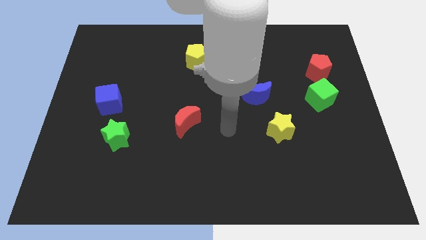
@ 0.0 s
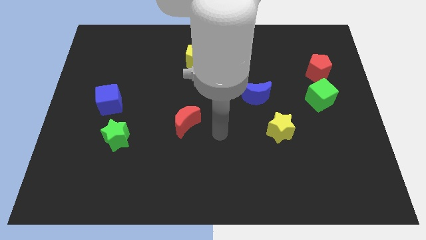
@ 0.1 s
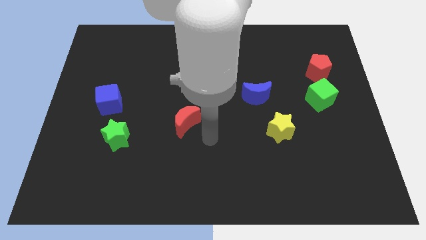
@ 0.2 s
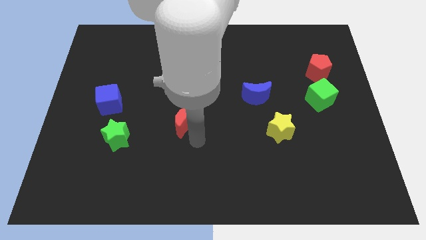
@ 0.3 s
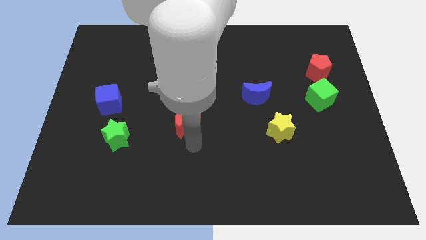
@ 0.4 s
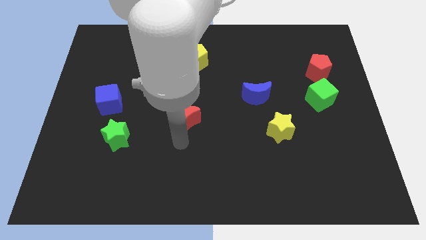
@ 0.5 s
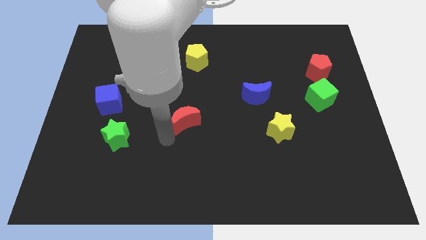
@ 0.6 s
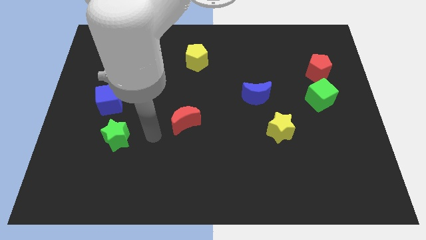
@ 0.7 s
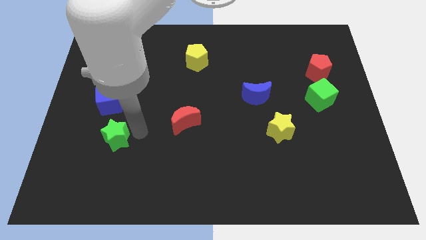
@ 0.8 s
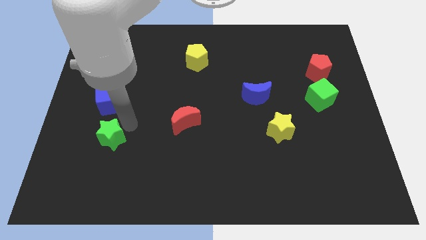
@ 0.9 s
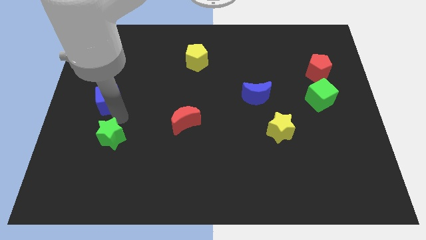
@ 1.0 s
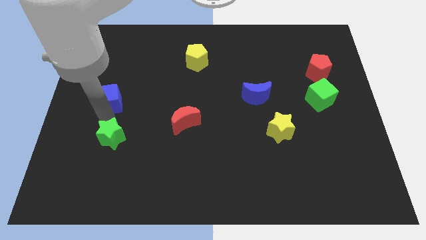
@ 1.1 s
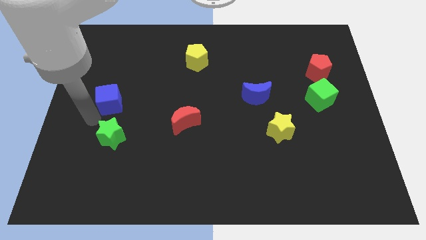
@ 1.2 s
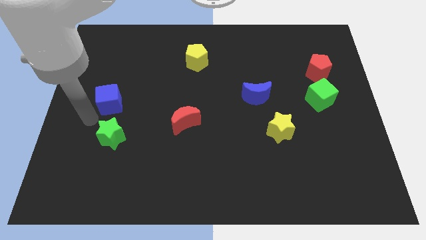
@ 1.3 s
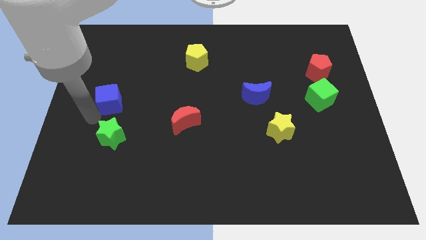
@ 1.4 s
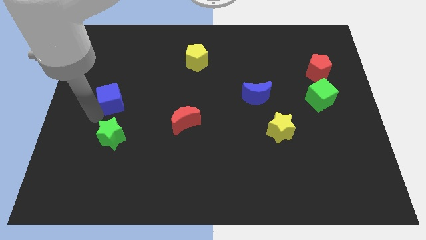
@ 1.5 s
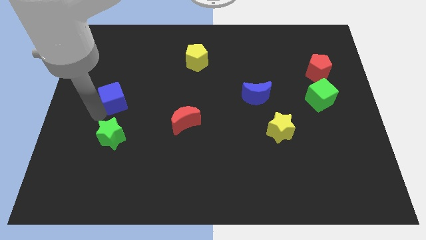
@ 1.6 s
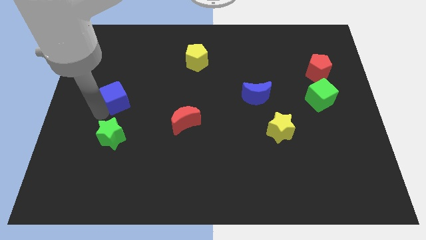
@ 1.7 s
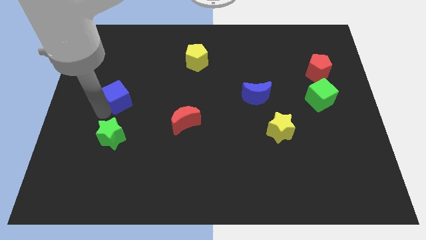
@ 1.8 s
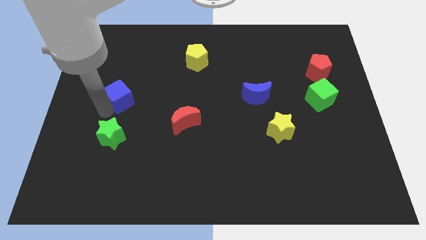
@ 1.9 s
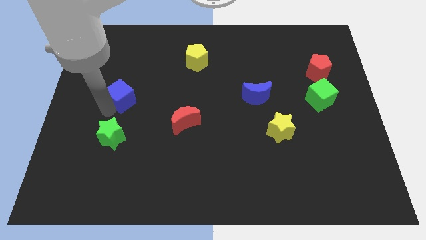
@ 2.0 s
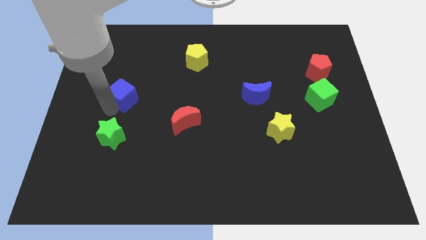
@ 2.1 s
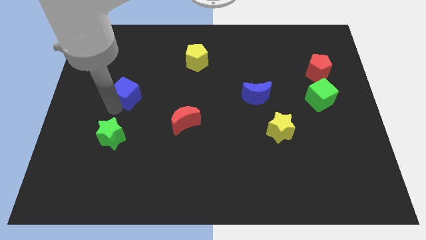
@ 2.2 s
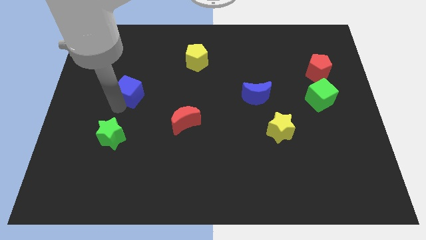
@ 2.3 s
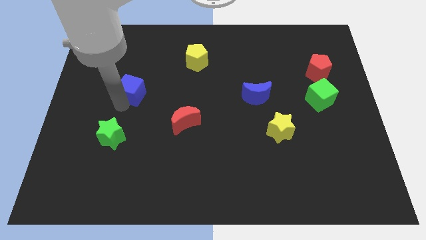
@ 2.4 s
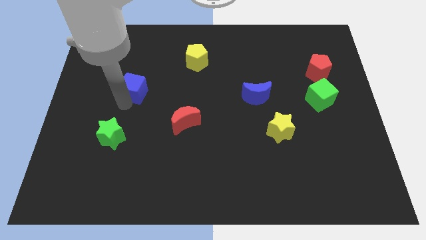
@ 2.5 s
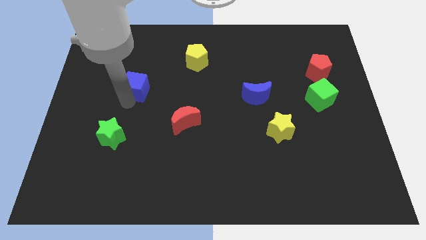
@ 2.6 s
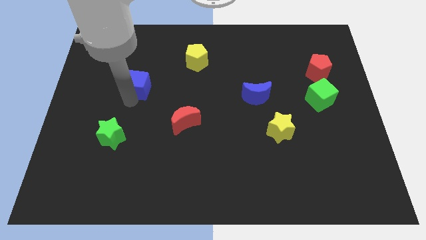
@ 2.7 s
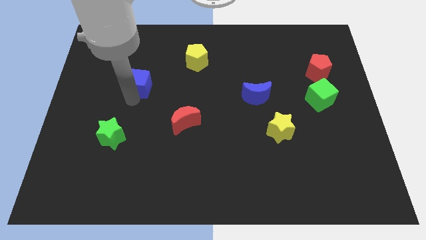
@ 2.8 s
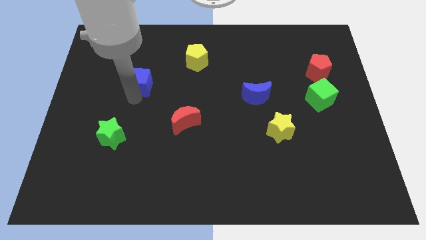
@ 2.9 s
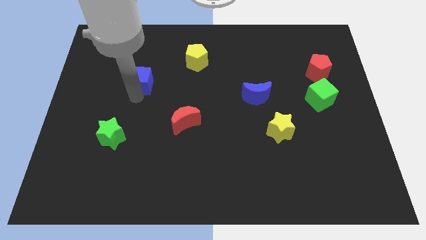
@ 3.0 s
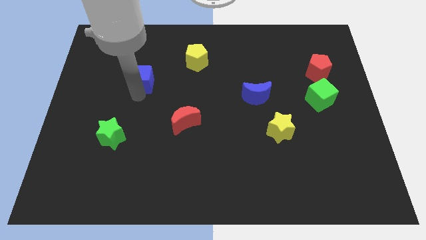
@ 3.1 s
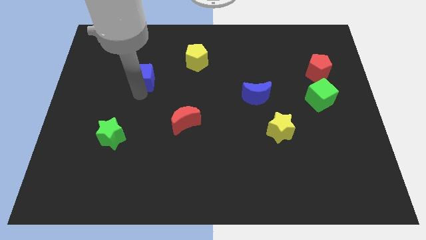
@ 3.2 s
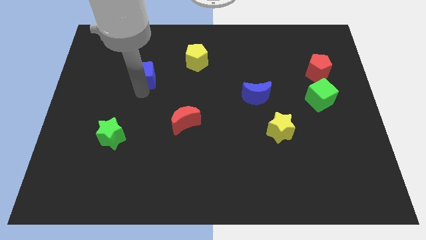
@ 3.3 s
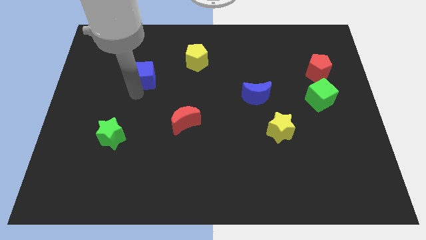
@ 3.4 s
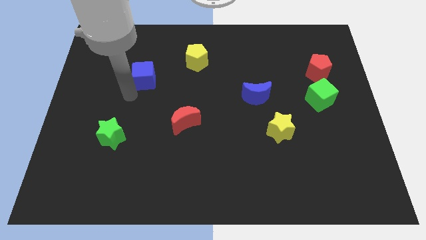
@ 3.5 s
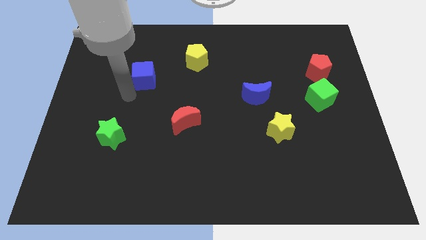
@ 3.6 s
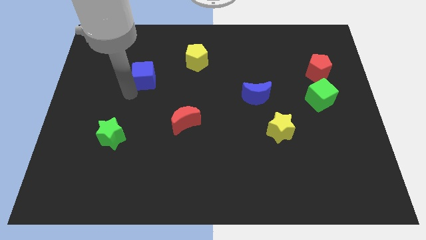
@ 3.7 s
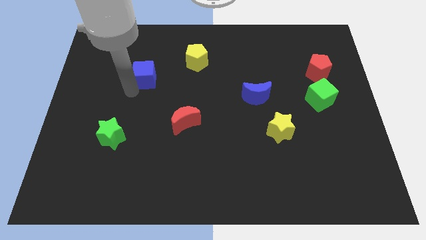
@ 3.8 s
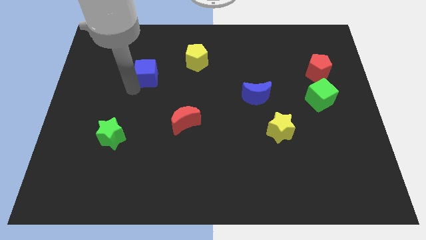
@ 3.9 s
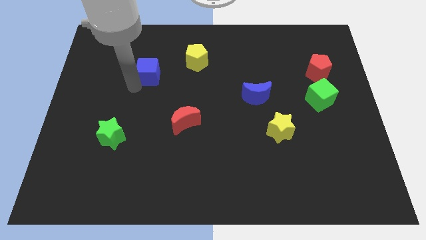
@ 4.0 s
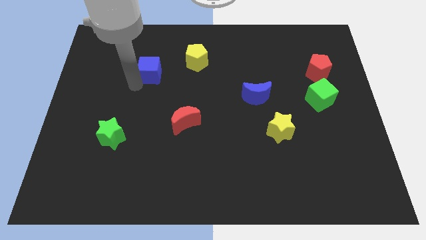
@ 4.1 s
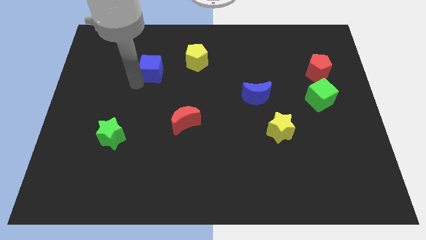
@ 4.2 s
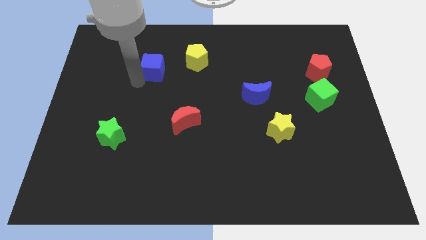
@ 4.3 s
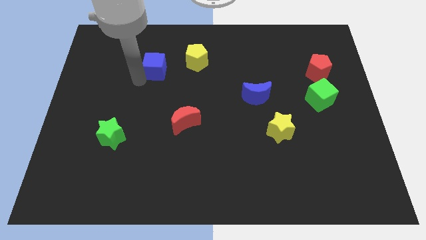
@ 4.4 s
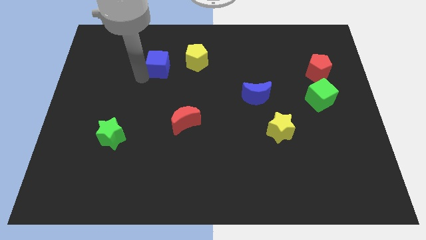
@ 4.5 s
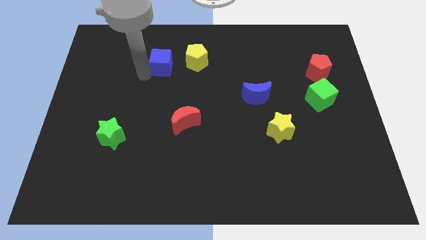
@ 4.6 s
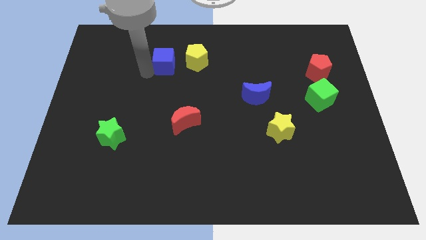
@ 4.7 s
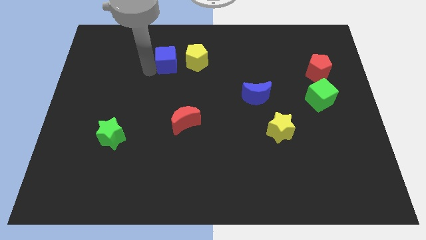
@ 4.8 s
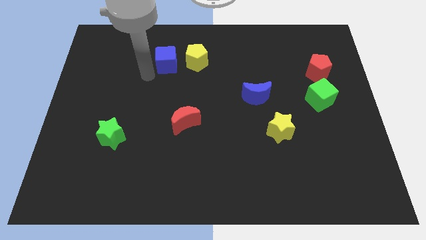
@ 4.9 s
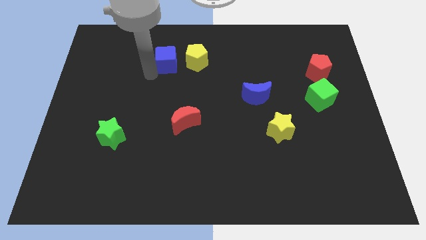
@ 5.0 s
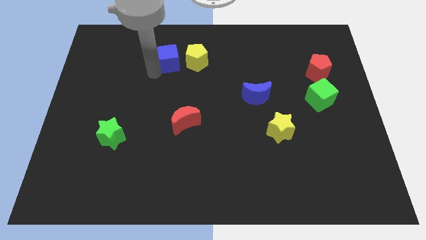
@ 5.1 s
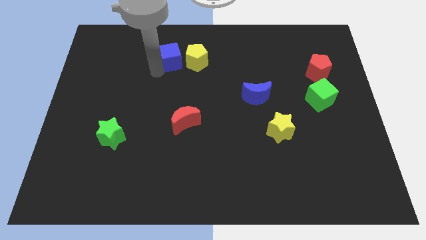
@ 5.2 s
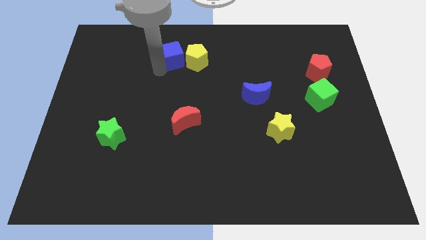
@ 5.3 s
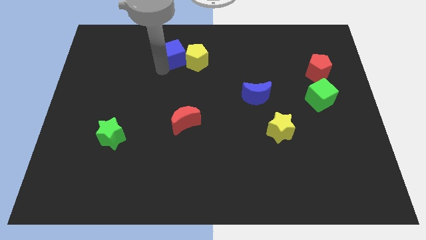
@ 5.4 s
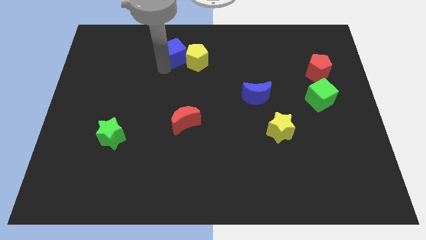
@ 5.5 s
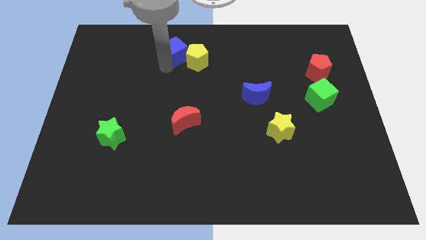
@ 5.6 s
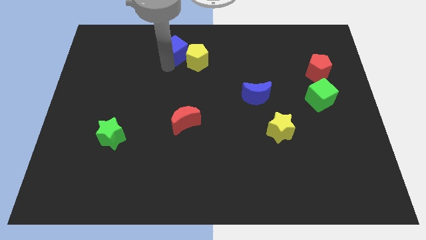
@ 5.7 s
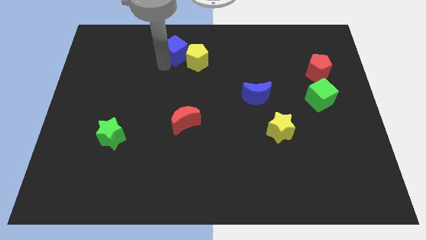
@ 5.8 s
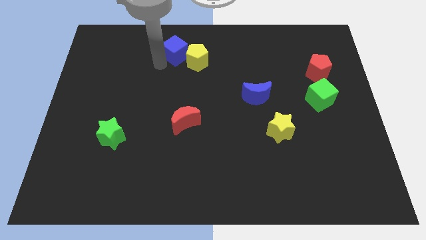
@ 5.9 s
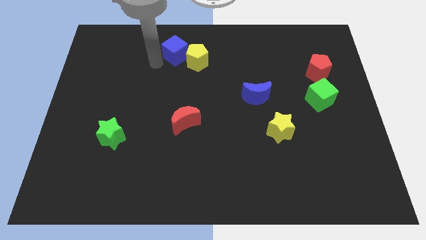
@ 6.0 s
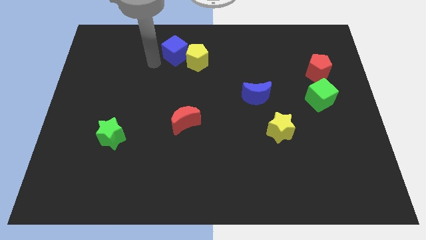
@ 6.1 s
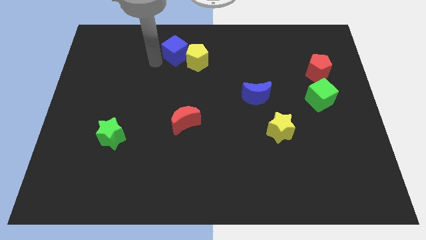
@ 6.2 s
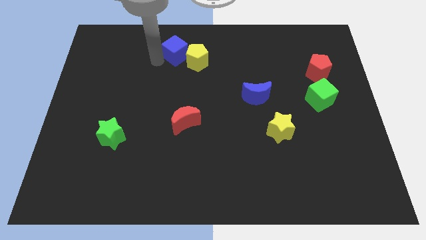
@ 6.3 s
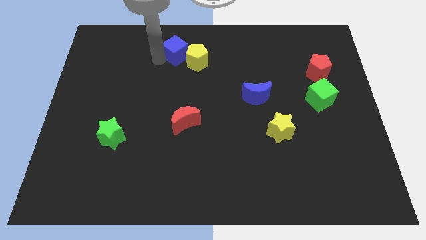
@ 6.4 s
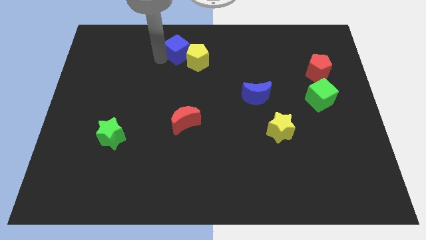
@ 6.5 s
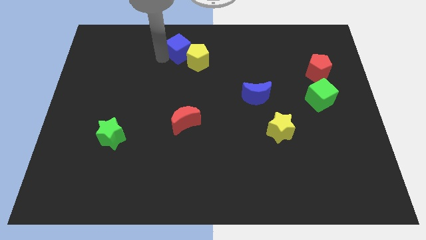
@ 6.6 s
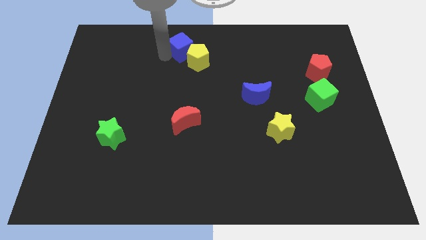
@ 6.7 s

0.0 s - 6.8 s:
slide the blue cube to the top side
